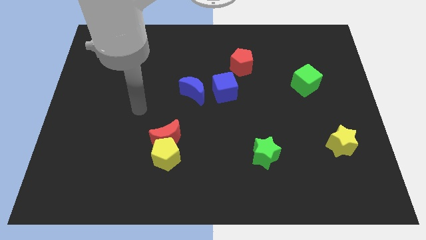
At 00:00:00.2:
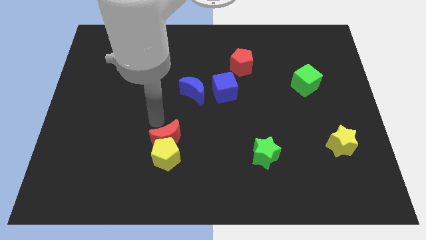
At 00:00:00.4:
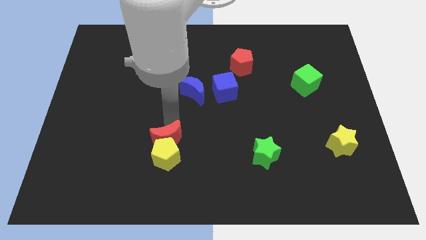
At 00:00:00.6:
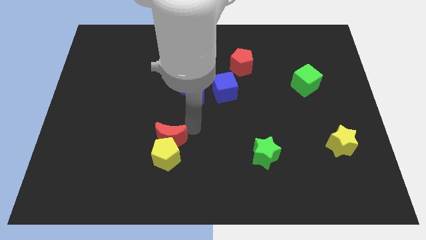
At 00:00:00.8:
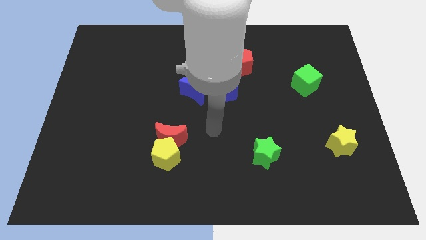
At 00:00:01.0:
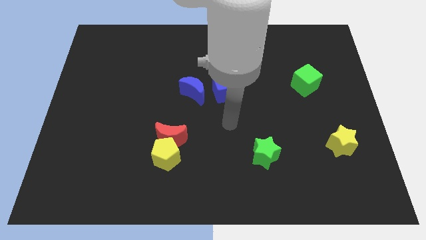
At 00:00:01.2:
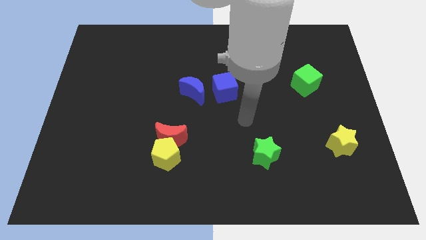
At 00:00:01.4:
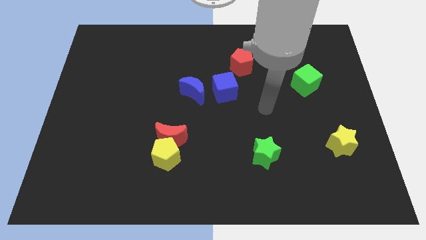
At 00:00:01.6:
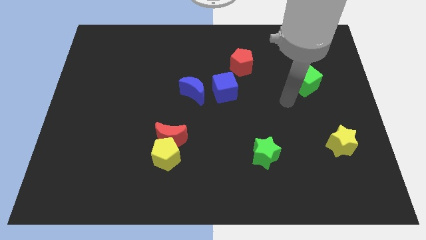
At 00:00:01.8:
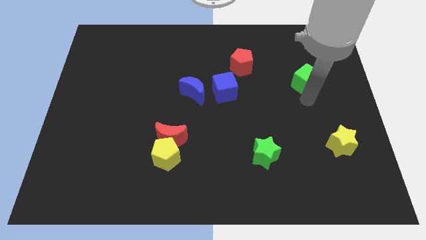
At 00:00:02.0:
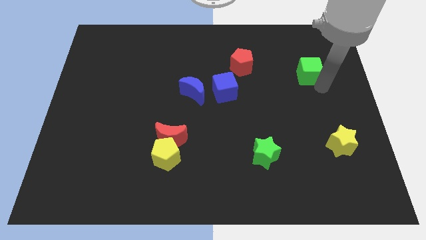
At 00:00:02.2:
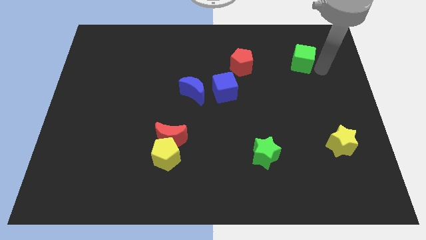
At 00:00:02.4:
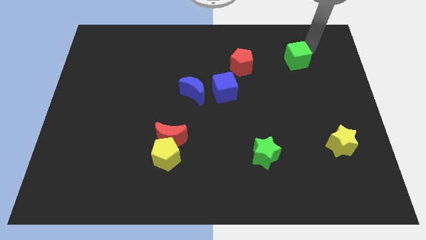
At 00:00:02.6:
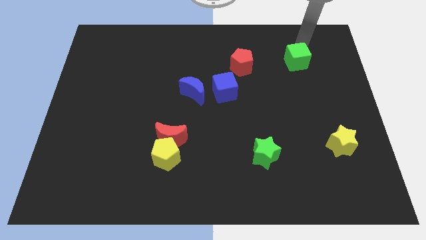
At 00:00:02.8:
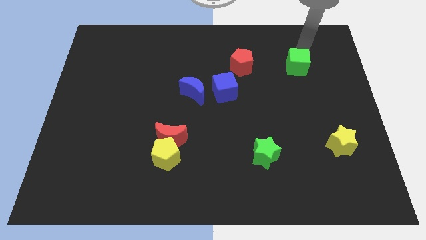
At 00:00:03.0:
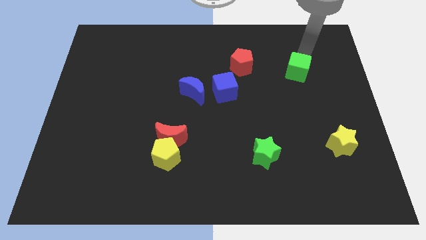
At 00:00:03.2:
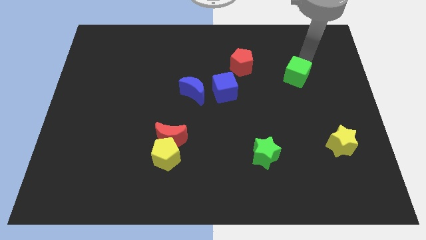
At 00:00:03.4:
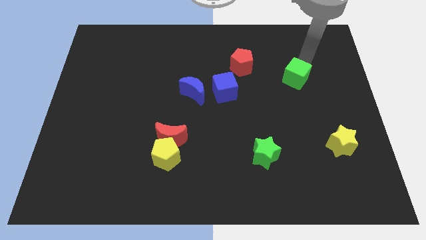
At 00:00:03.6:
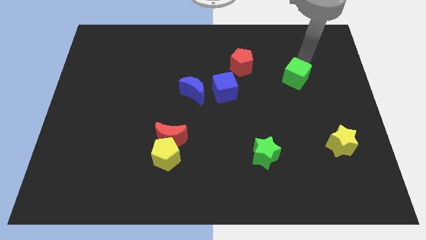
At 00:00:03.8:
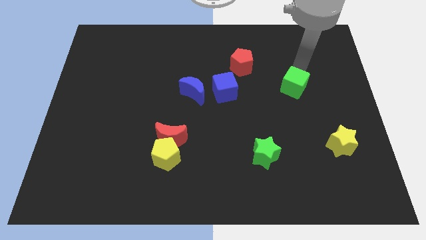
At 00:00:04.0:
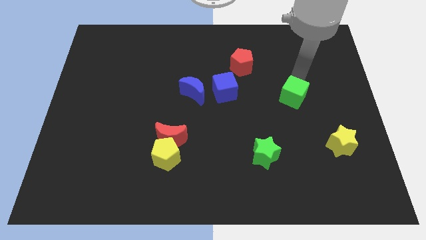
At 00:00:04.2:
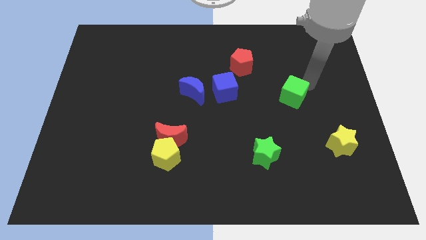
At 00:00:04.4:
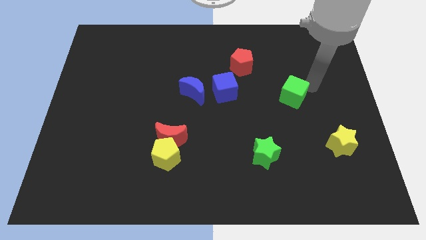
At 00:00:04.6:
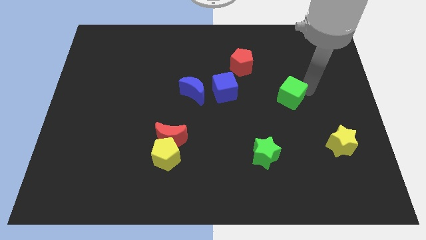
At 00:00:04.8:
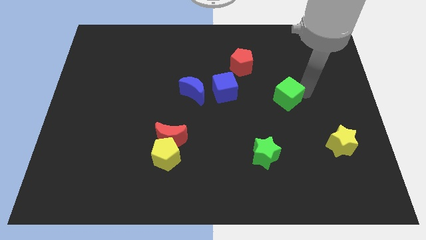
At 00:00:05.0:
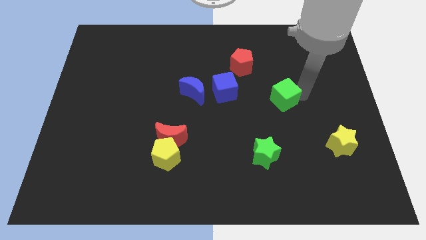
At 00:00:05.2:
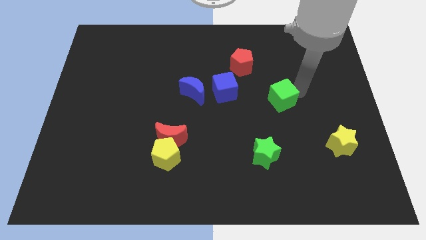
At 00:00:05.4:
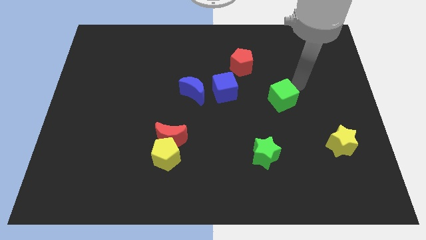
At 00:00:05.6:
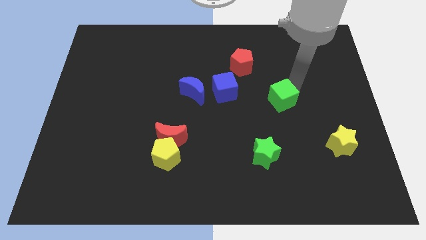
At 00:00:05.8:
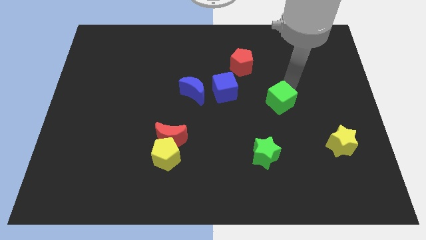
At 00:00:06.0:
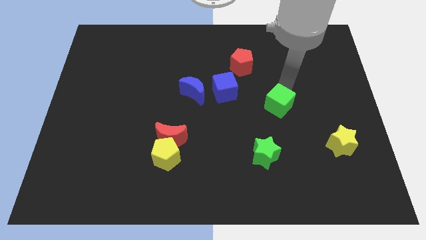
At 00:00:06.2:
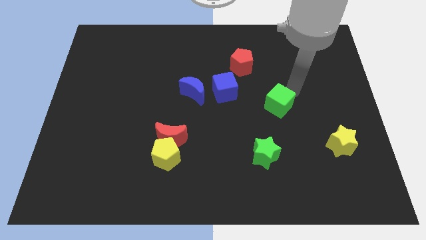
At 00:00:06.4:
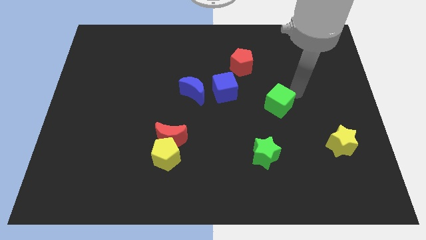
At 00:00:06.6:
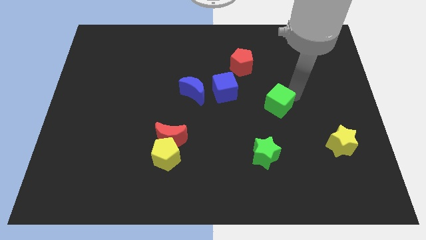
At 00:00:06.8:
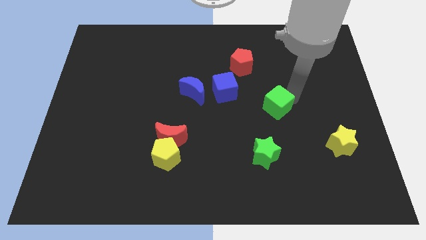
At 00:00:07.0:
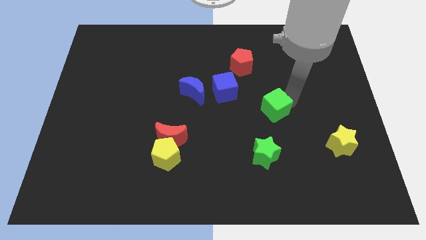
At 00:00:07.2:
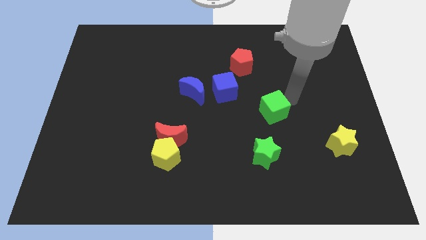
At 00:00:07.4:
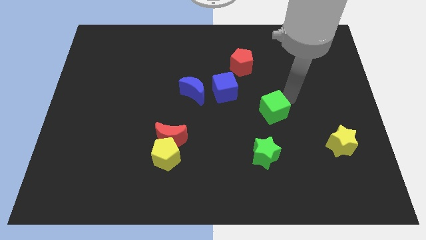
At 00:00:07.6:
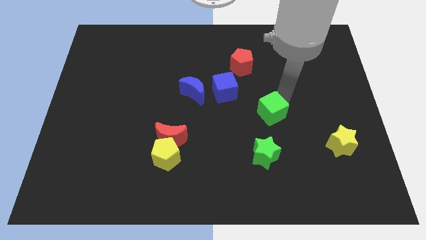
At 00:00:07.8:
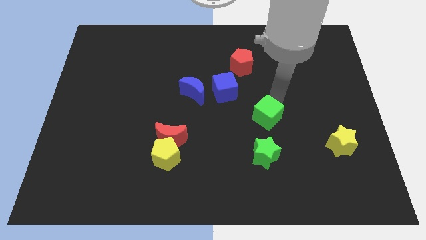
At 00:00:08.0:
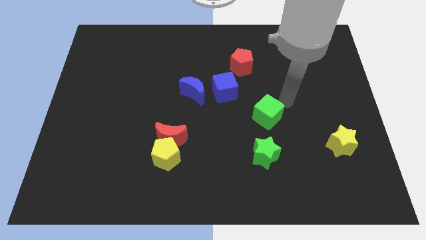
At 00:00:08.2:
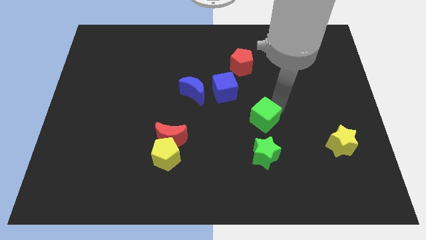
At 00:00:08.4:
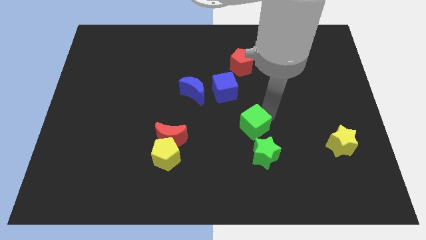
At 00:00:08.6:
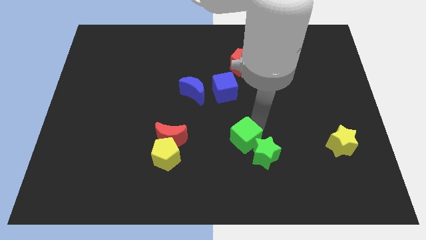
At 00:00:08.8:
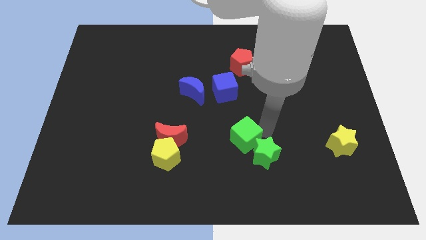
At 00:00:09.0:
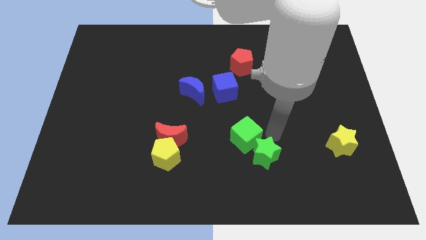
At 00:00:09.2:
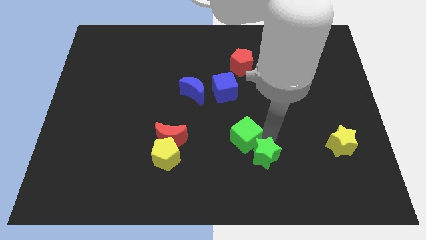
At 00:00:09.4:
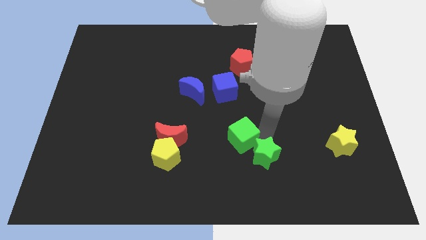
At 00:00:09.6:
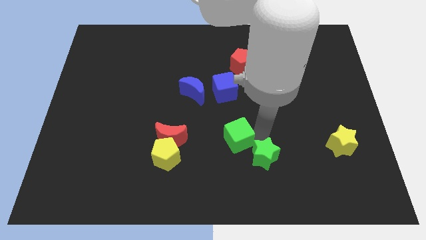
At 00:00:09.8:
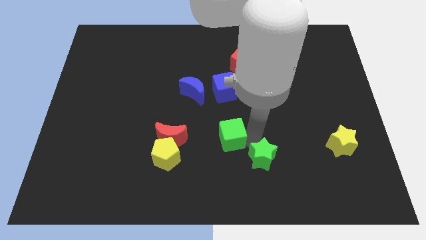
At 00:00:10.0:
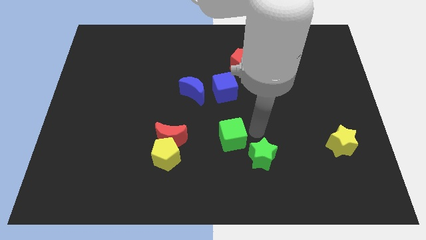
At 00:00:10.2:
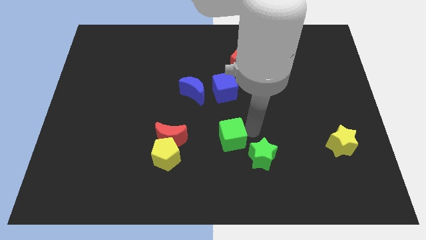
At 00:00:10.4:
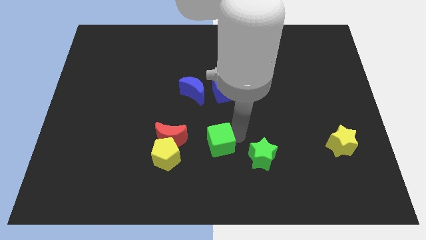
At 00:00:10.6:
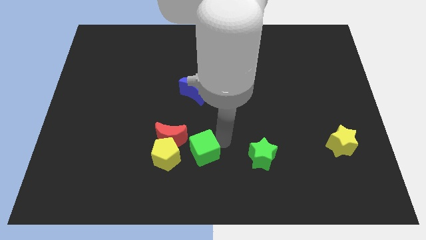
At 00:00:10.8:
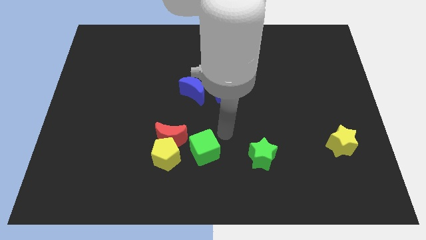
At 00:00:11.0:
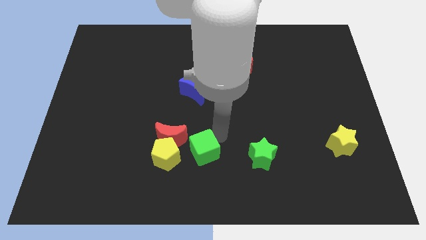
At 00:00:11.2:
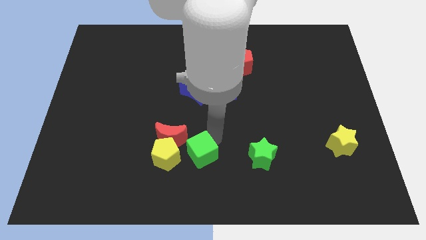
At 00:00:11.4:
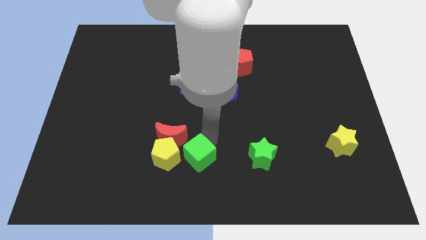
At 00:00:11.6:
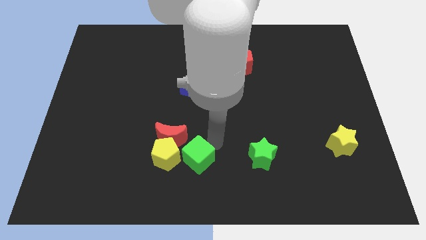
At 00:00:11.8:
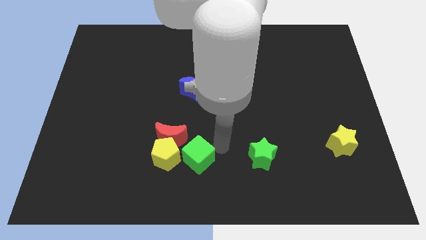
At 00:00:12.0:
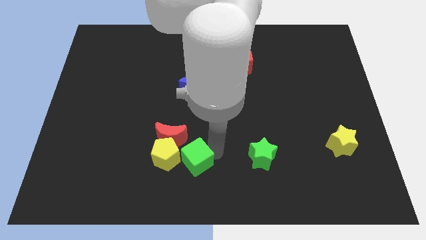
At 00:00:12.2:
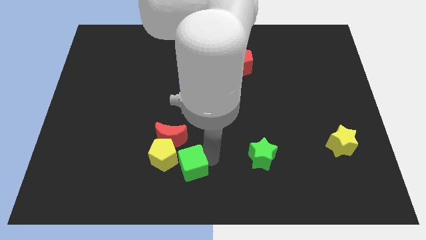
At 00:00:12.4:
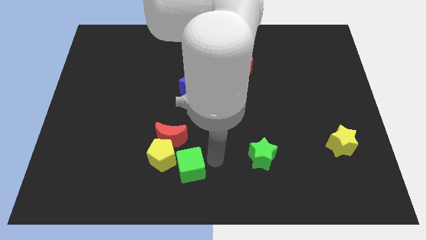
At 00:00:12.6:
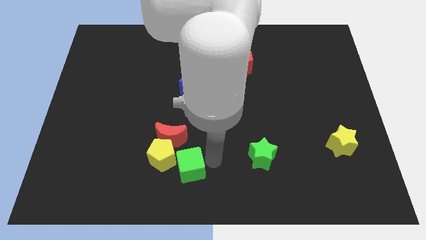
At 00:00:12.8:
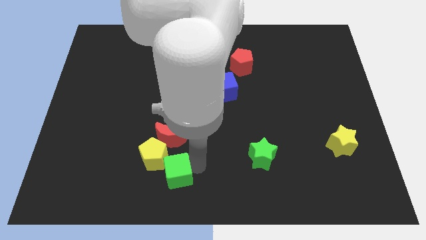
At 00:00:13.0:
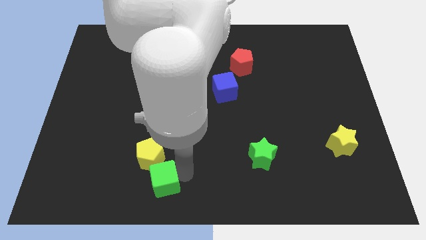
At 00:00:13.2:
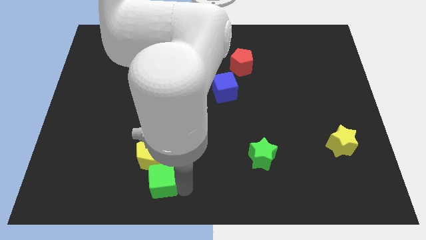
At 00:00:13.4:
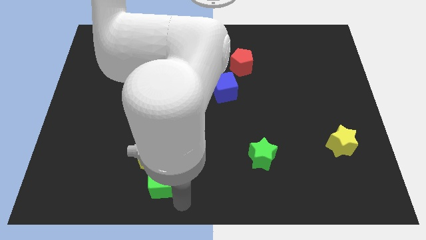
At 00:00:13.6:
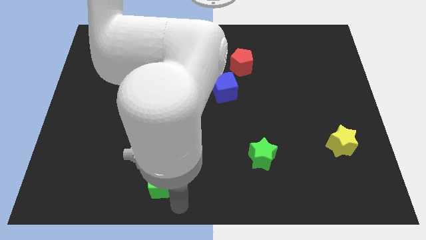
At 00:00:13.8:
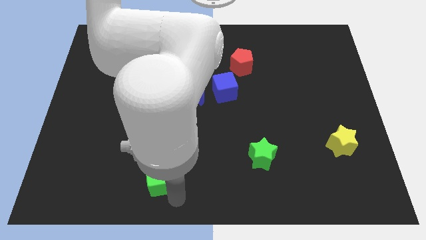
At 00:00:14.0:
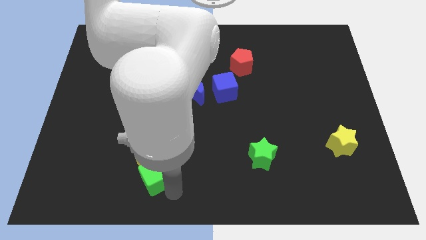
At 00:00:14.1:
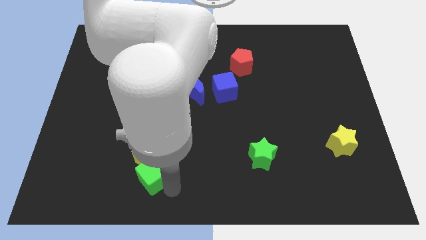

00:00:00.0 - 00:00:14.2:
move the green cube to the bottom left of the red moon
